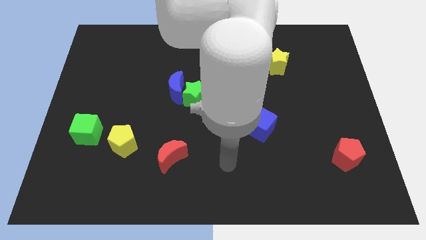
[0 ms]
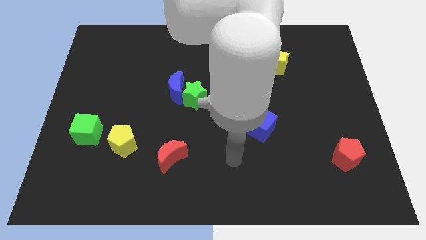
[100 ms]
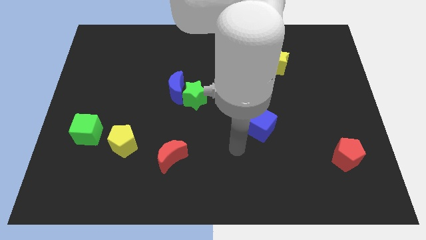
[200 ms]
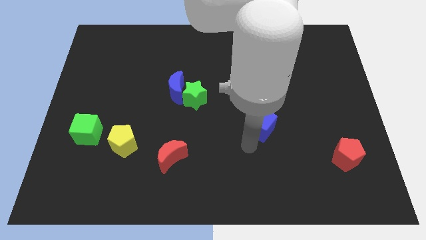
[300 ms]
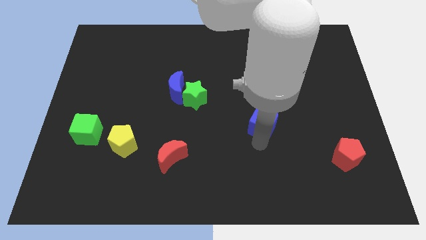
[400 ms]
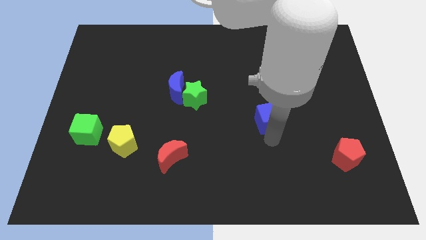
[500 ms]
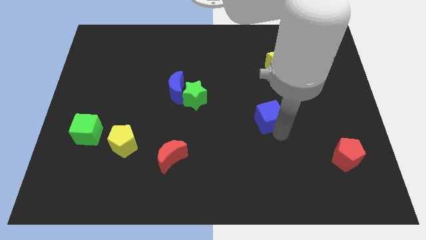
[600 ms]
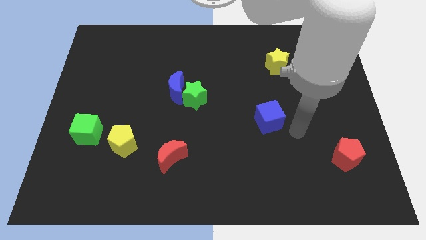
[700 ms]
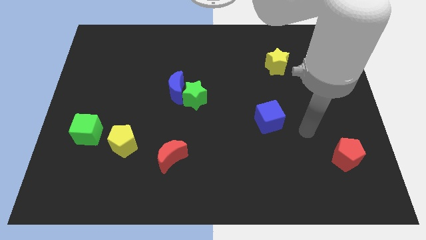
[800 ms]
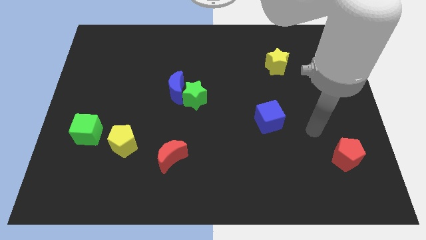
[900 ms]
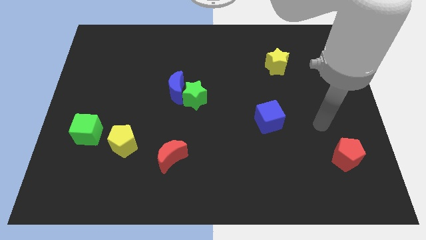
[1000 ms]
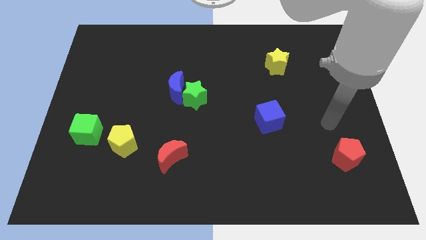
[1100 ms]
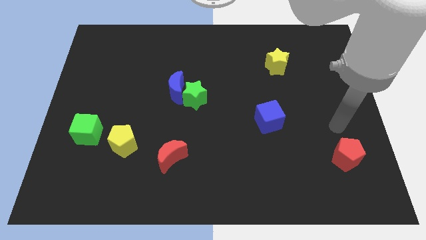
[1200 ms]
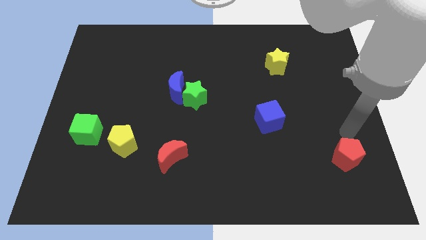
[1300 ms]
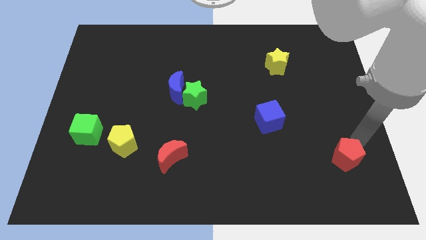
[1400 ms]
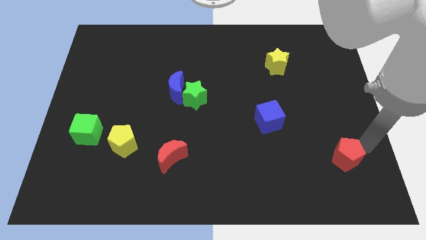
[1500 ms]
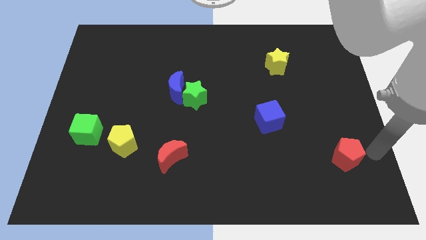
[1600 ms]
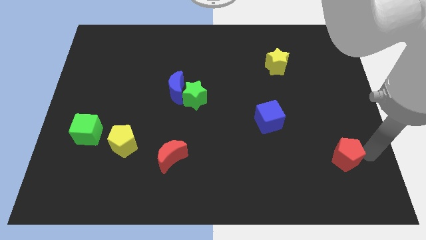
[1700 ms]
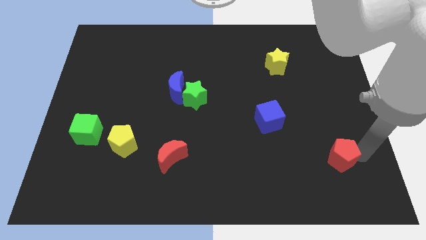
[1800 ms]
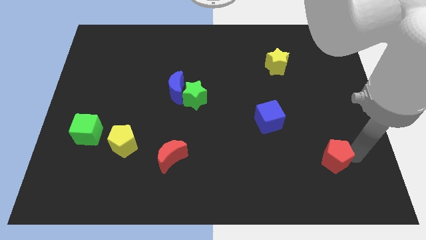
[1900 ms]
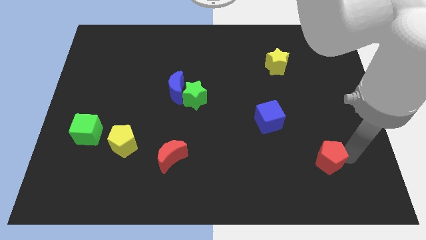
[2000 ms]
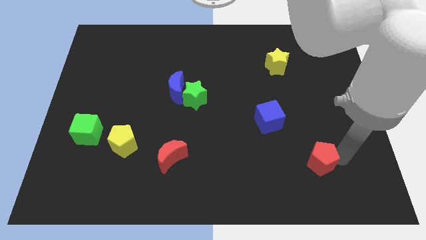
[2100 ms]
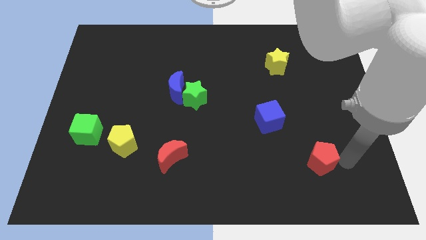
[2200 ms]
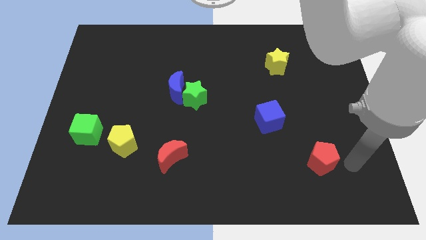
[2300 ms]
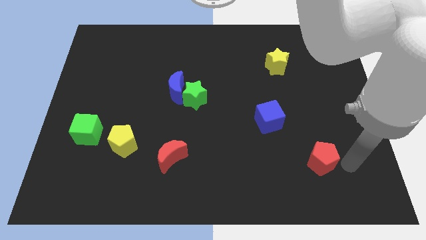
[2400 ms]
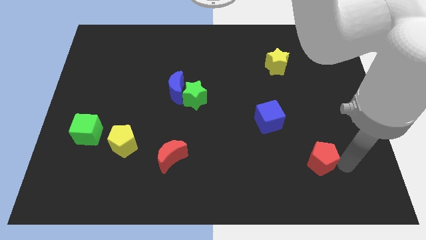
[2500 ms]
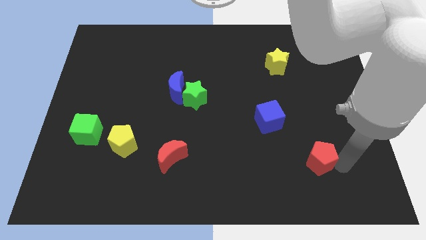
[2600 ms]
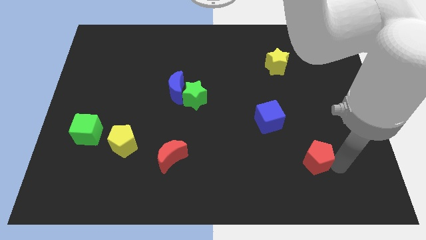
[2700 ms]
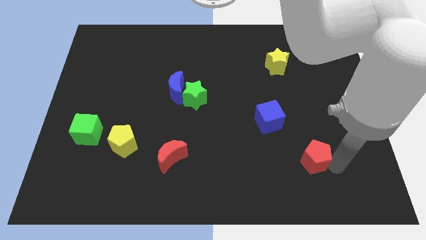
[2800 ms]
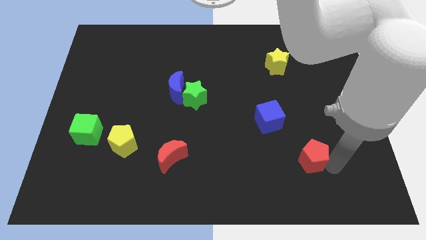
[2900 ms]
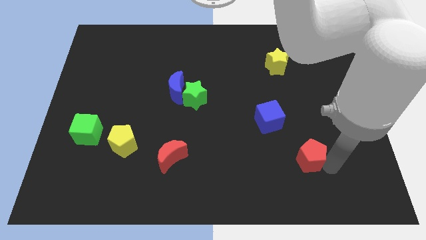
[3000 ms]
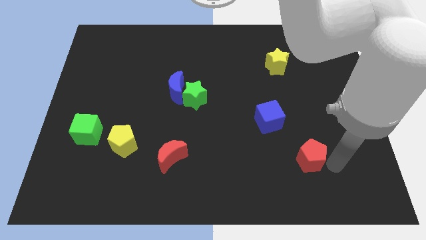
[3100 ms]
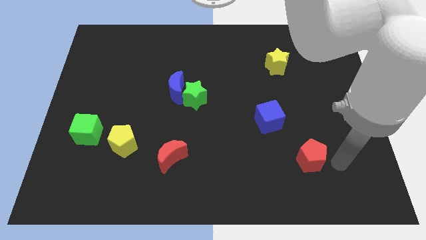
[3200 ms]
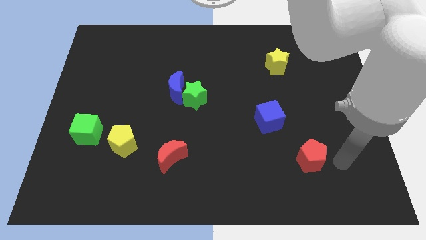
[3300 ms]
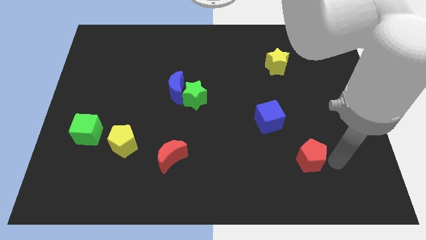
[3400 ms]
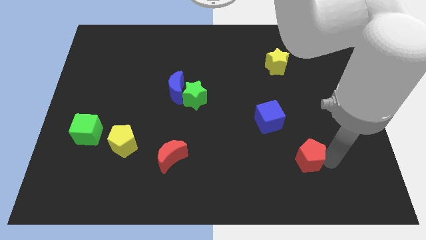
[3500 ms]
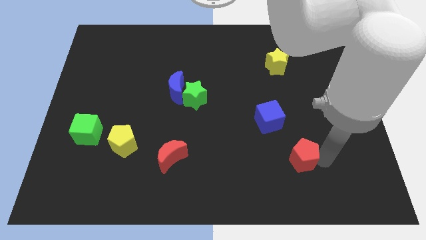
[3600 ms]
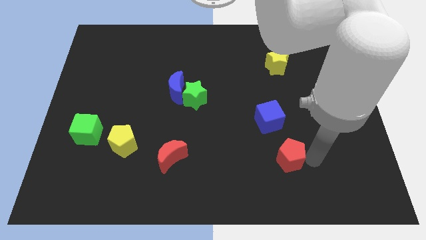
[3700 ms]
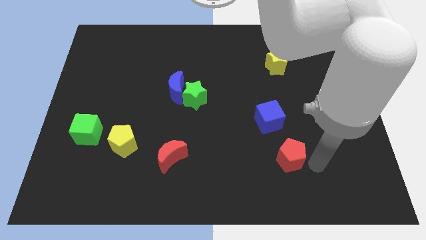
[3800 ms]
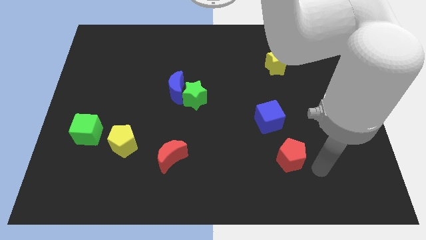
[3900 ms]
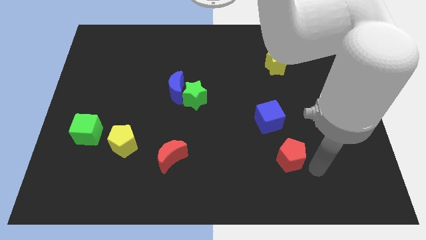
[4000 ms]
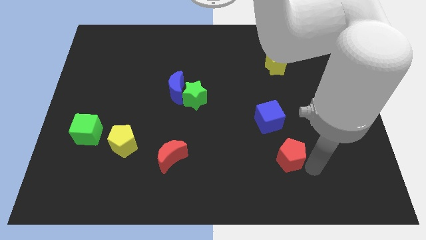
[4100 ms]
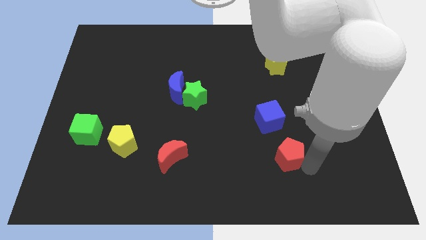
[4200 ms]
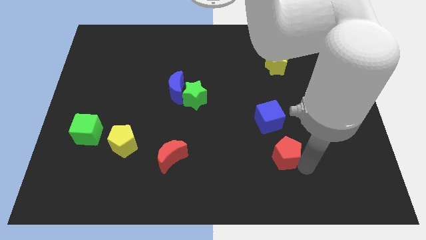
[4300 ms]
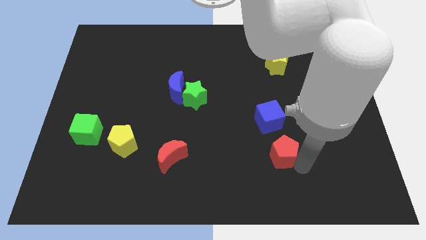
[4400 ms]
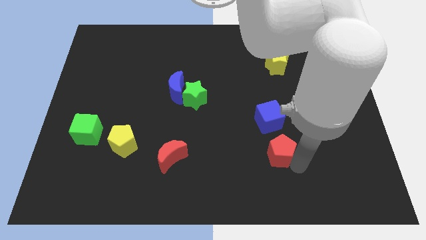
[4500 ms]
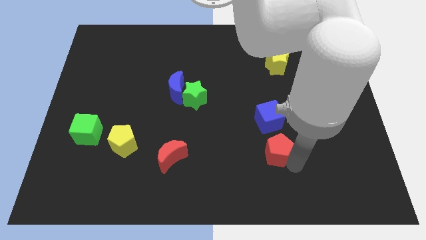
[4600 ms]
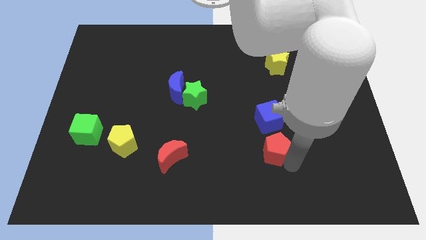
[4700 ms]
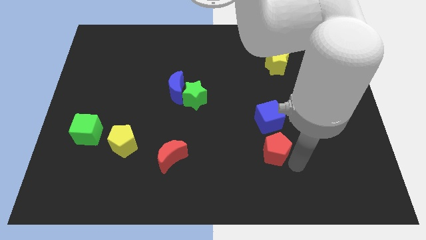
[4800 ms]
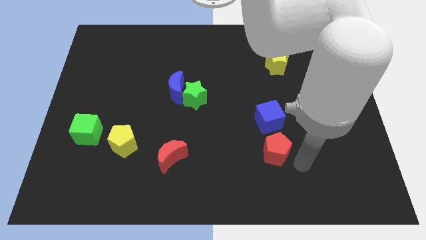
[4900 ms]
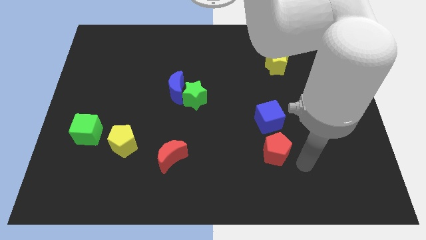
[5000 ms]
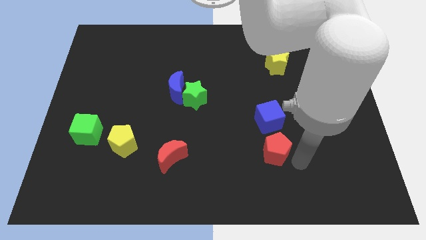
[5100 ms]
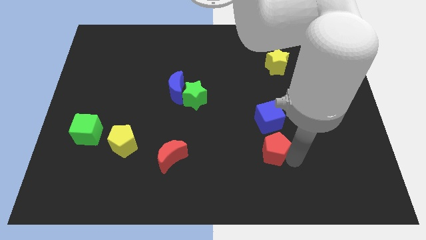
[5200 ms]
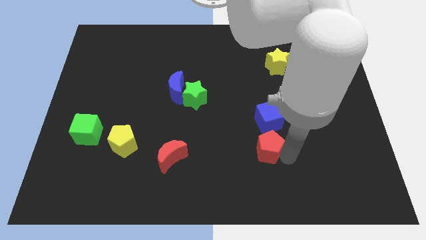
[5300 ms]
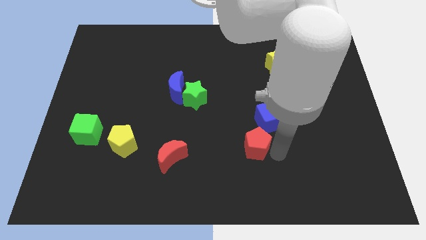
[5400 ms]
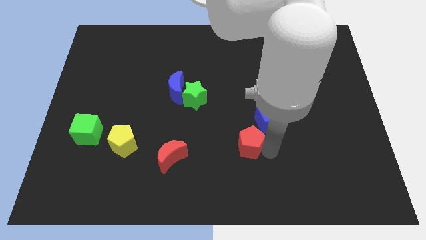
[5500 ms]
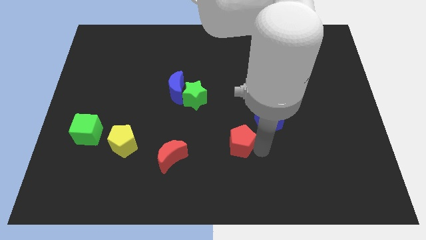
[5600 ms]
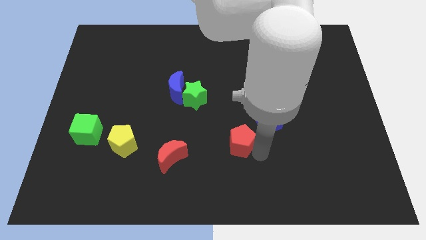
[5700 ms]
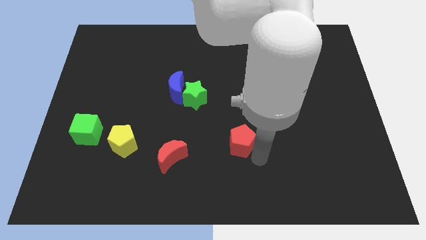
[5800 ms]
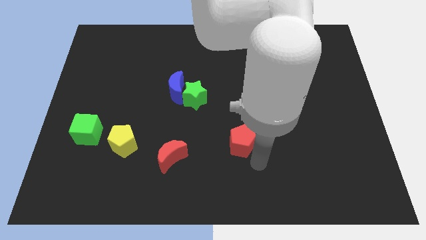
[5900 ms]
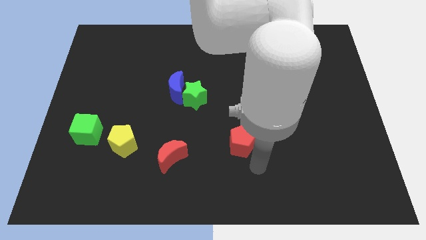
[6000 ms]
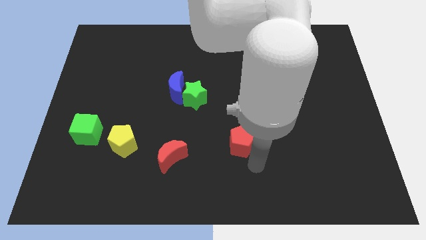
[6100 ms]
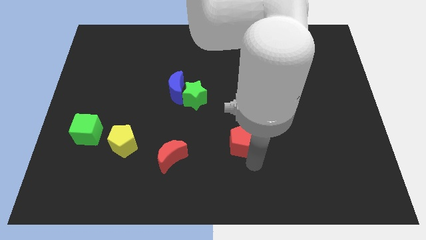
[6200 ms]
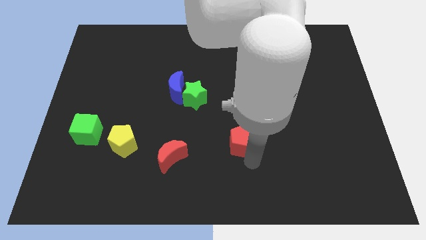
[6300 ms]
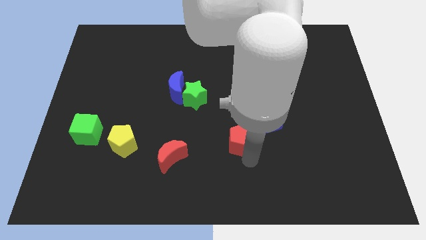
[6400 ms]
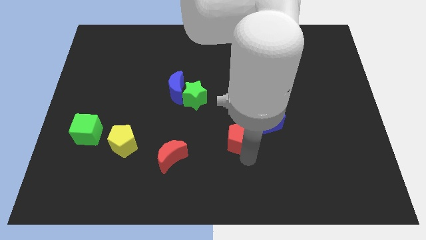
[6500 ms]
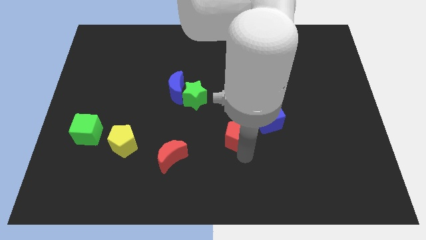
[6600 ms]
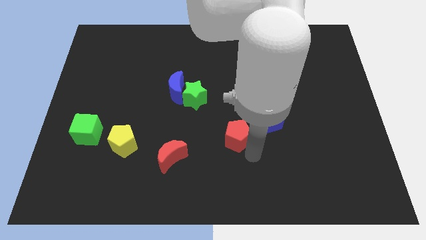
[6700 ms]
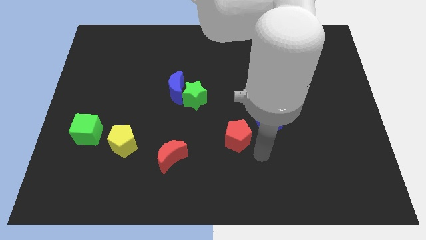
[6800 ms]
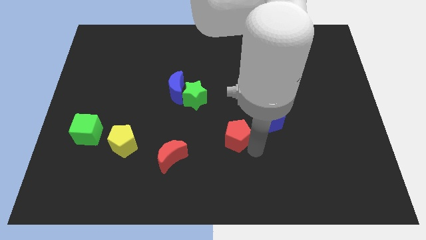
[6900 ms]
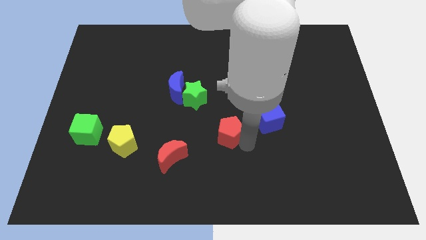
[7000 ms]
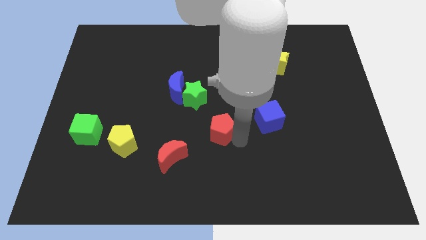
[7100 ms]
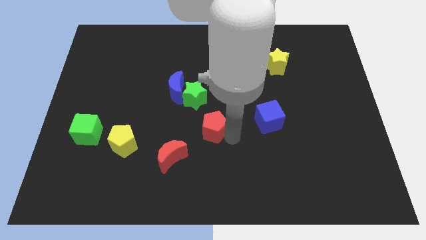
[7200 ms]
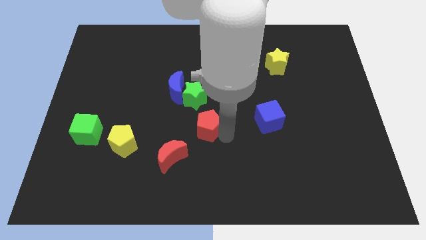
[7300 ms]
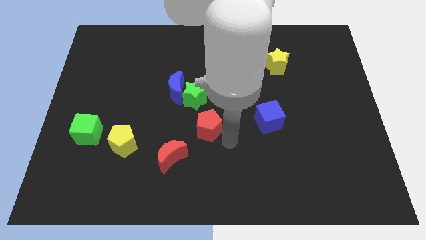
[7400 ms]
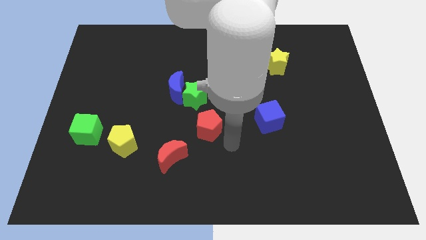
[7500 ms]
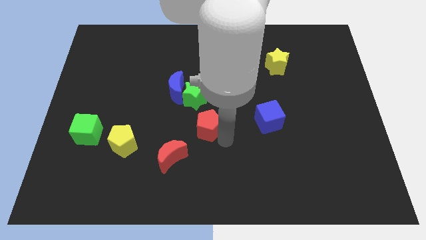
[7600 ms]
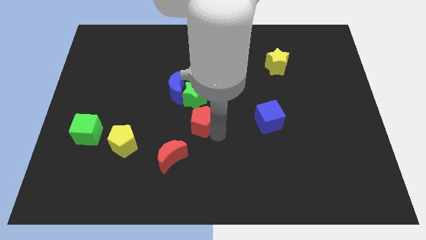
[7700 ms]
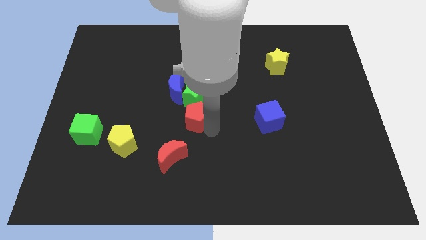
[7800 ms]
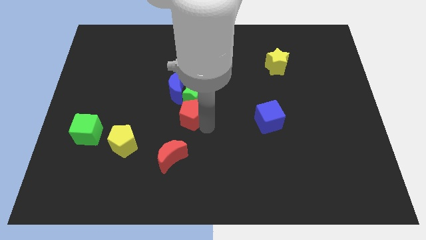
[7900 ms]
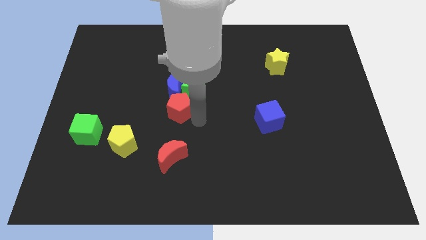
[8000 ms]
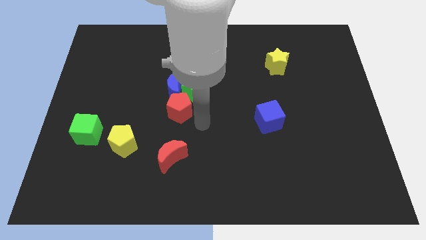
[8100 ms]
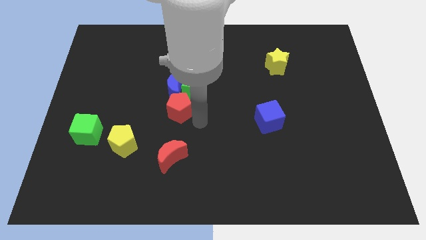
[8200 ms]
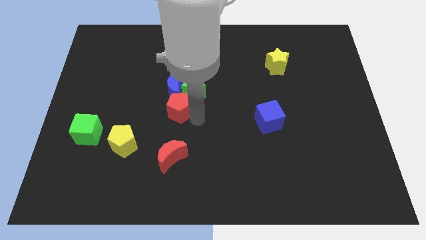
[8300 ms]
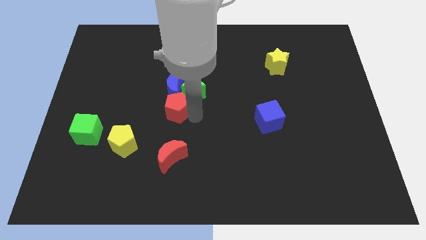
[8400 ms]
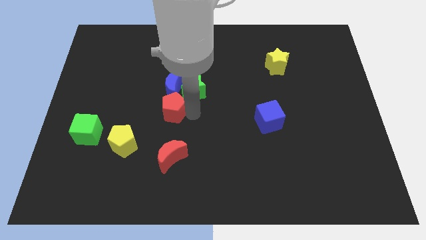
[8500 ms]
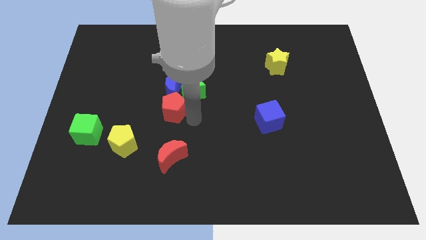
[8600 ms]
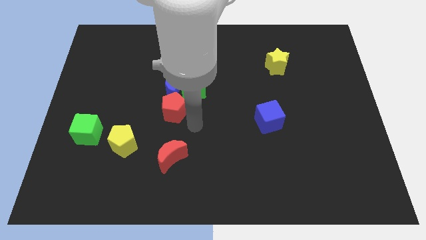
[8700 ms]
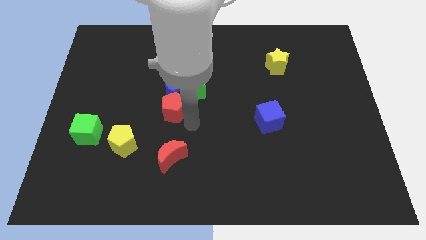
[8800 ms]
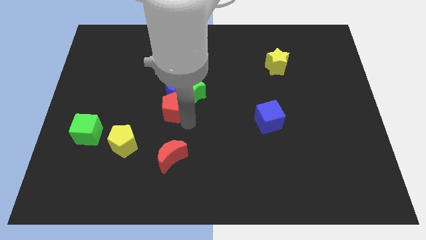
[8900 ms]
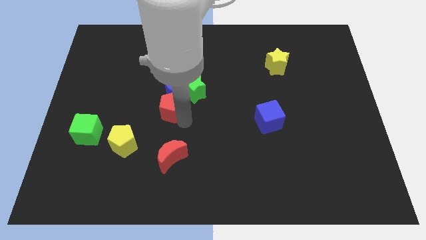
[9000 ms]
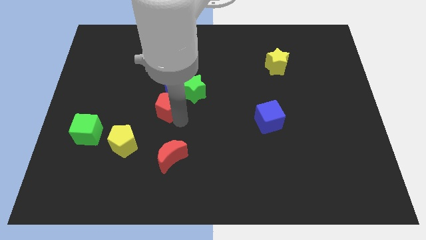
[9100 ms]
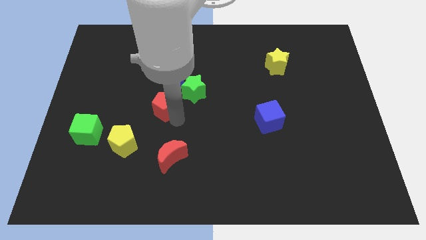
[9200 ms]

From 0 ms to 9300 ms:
move the red pentagon to the left of the green star
